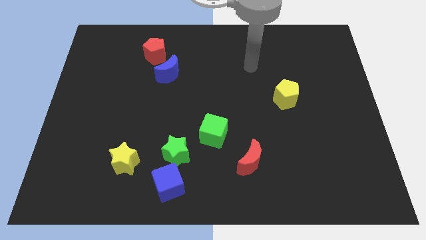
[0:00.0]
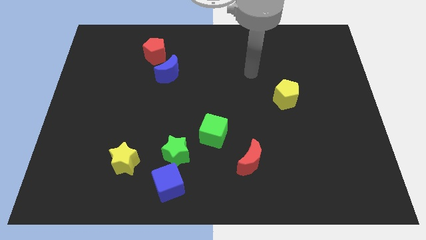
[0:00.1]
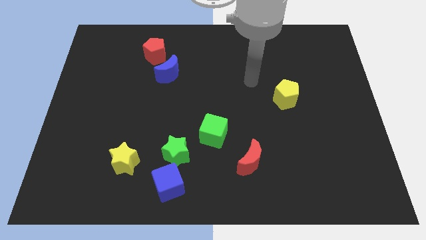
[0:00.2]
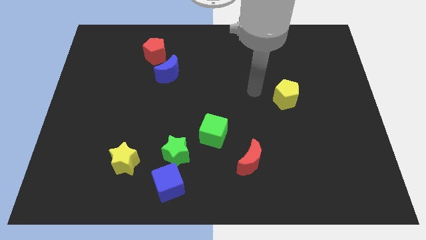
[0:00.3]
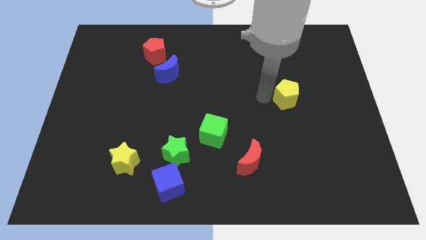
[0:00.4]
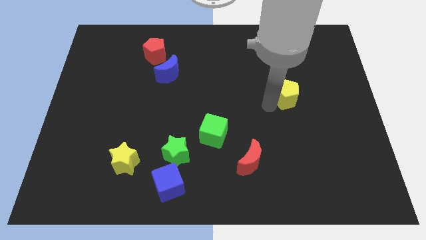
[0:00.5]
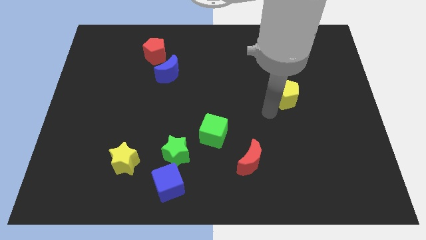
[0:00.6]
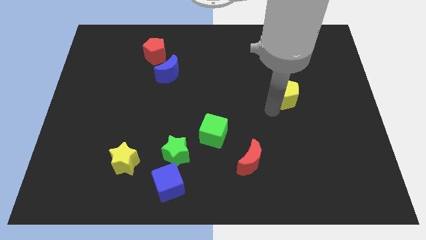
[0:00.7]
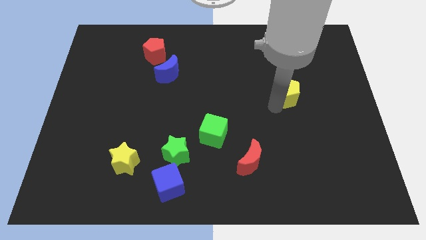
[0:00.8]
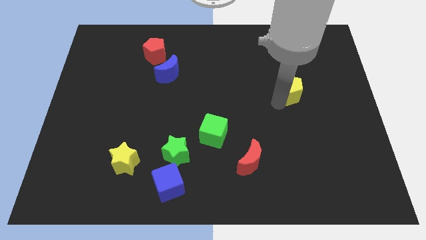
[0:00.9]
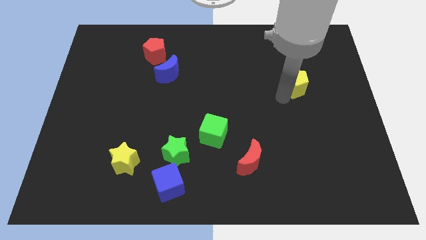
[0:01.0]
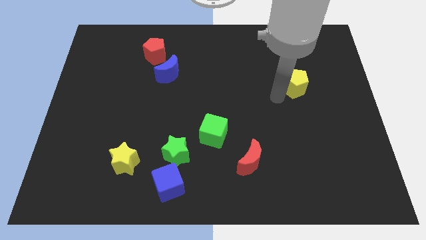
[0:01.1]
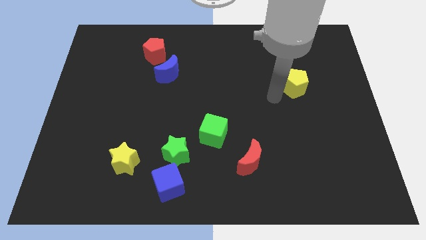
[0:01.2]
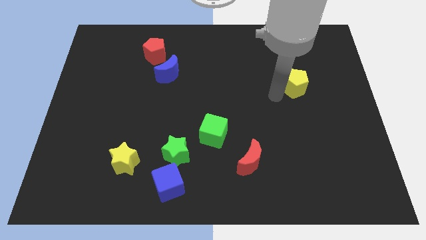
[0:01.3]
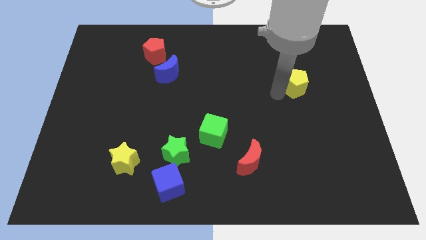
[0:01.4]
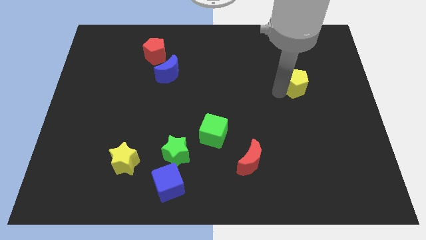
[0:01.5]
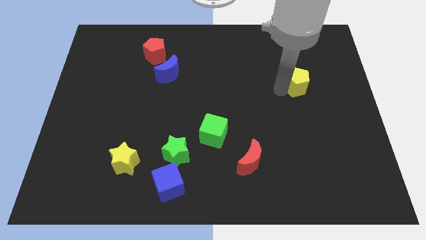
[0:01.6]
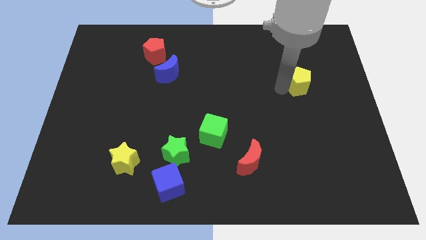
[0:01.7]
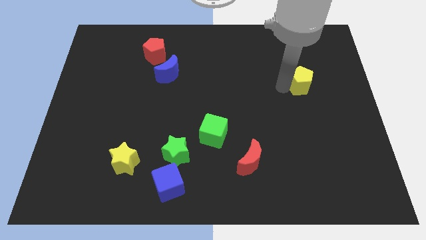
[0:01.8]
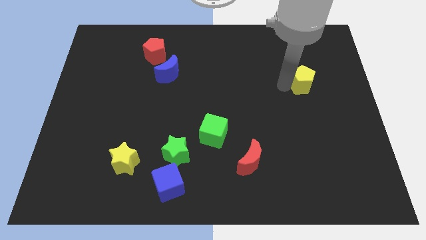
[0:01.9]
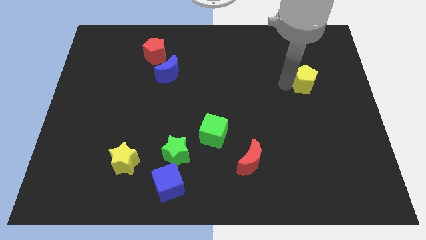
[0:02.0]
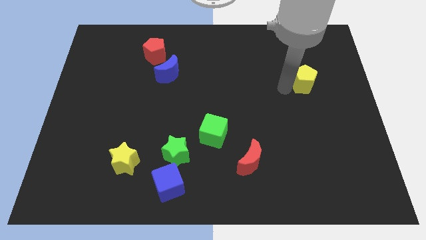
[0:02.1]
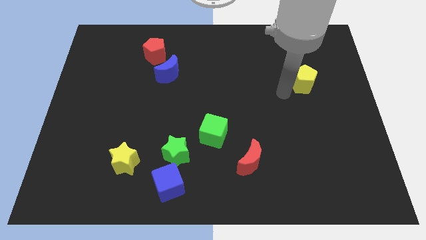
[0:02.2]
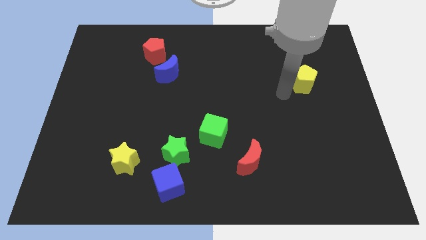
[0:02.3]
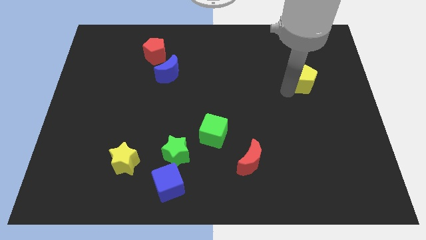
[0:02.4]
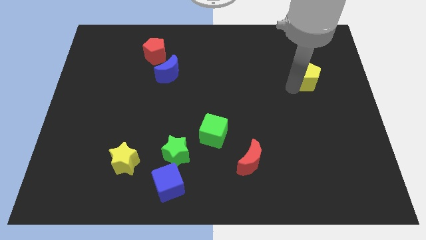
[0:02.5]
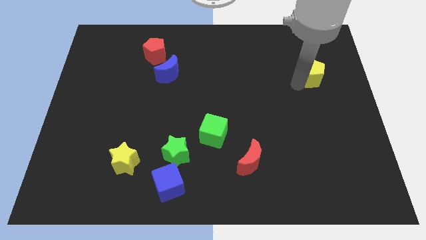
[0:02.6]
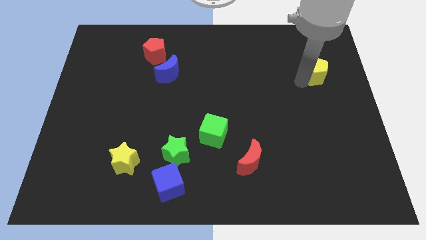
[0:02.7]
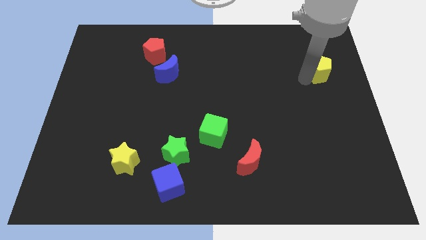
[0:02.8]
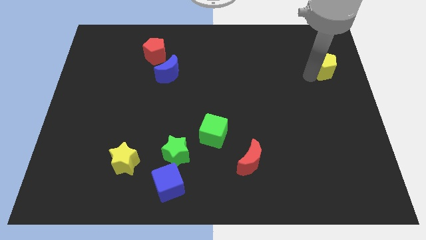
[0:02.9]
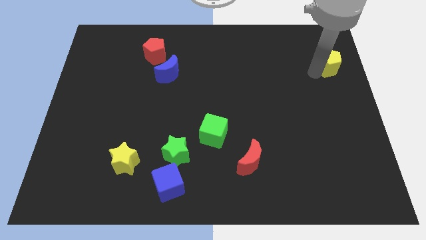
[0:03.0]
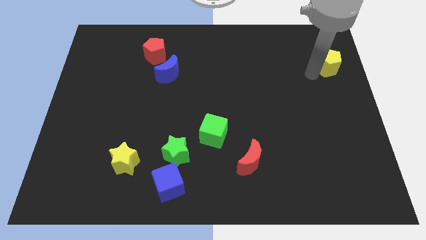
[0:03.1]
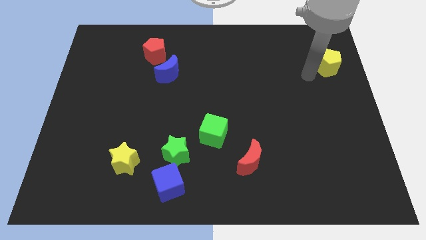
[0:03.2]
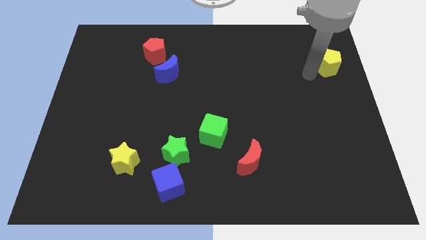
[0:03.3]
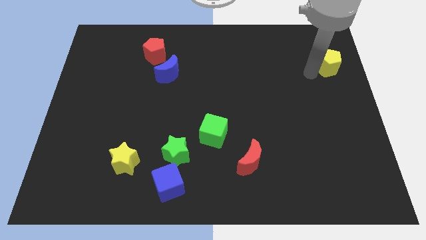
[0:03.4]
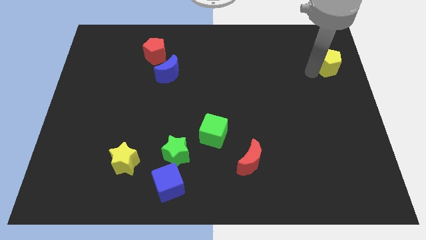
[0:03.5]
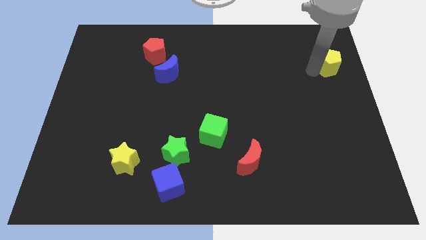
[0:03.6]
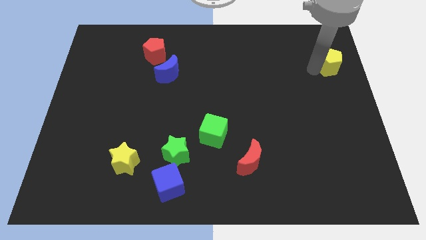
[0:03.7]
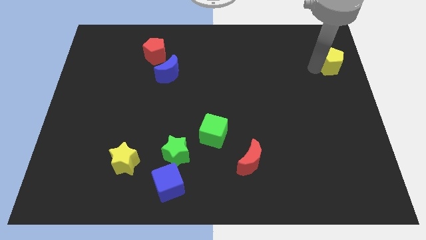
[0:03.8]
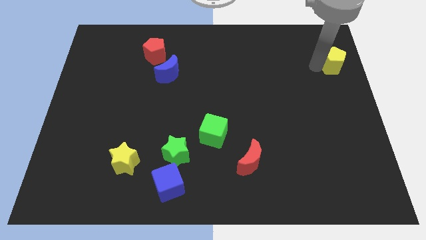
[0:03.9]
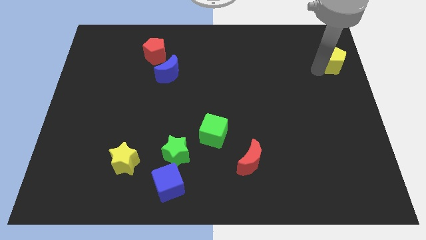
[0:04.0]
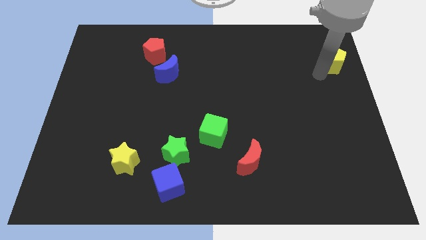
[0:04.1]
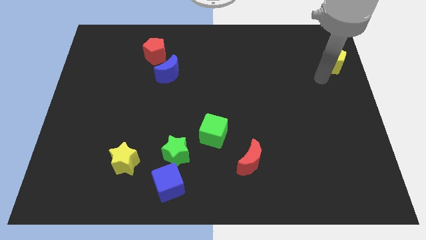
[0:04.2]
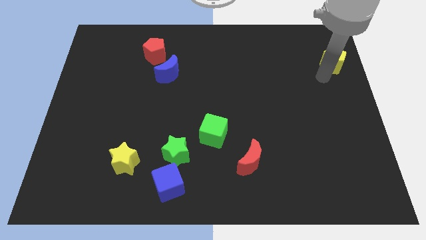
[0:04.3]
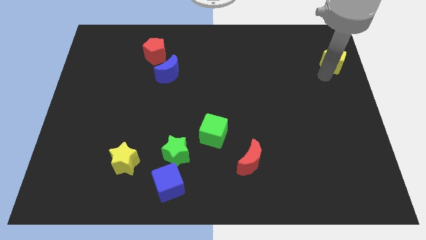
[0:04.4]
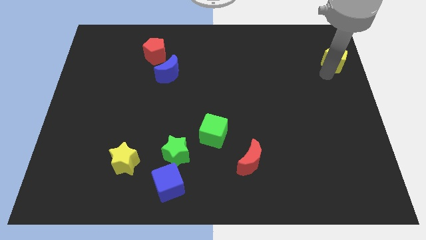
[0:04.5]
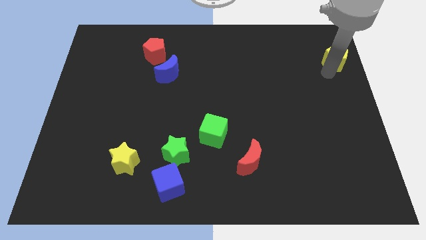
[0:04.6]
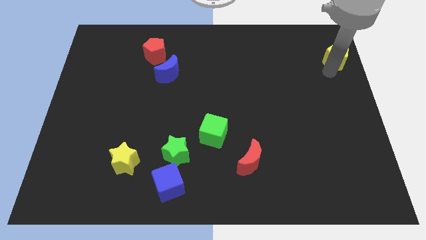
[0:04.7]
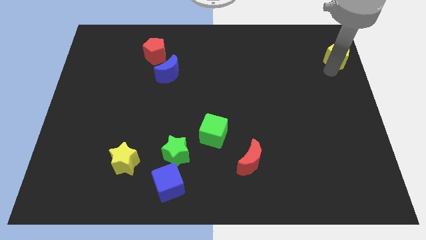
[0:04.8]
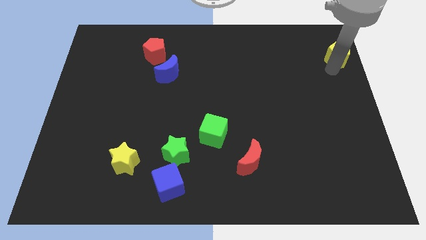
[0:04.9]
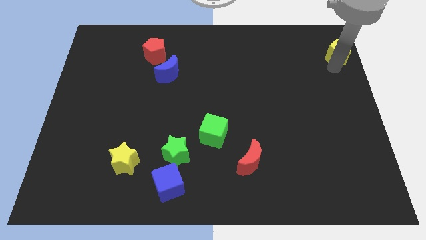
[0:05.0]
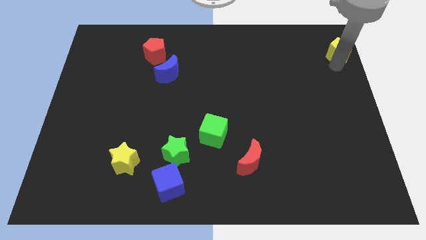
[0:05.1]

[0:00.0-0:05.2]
slide the yellow pentagon to the top right of the board

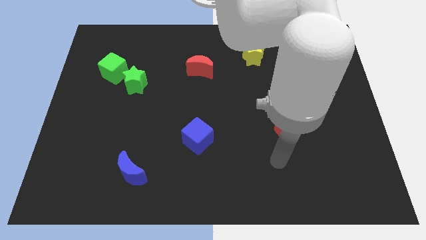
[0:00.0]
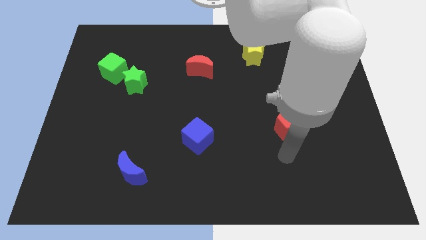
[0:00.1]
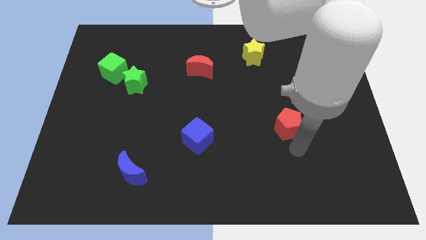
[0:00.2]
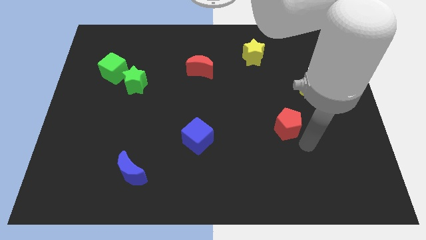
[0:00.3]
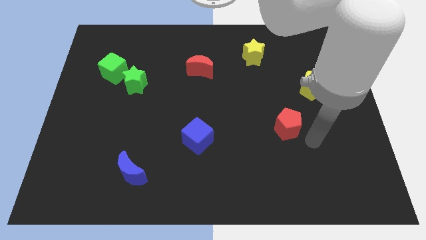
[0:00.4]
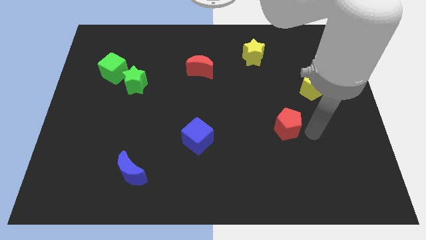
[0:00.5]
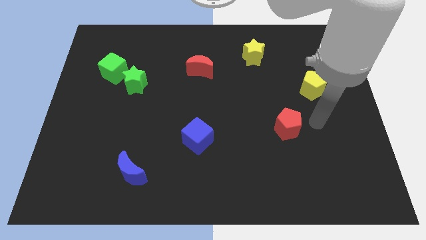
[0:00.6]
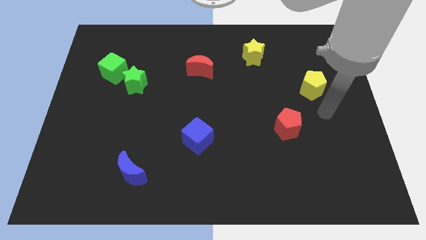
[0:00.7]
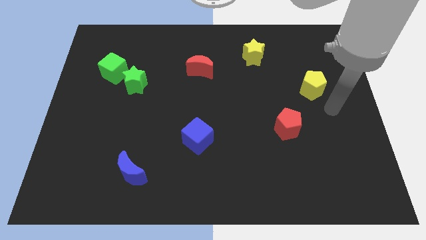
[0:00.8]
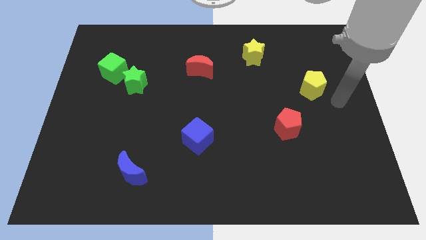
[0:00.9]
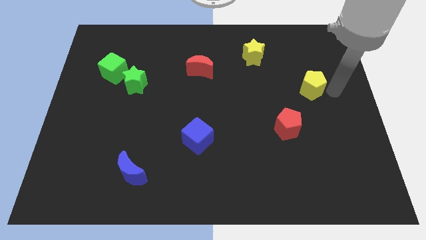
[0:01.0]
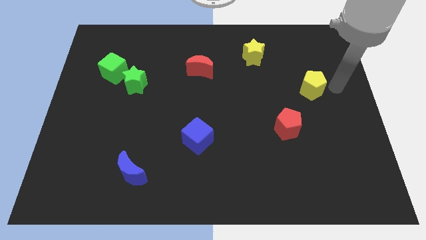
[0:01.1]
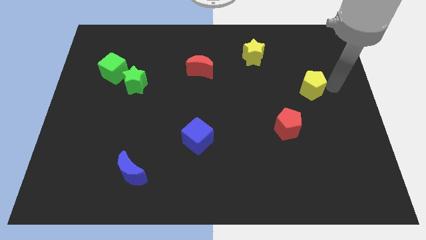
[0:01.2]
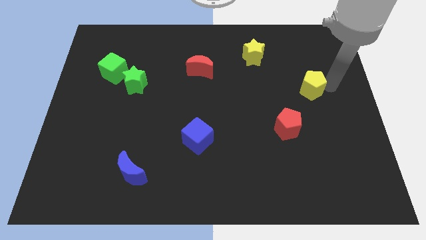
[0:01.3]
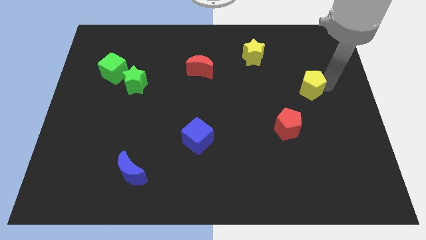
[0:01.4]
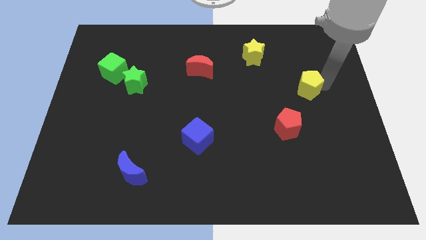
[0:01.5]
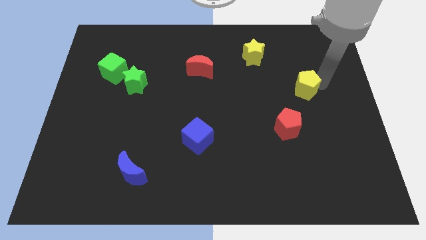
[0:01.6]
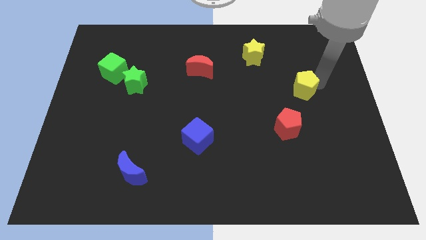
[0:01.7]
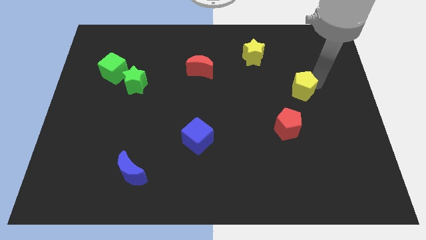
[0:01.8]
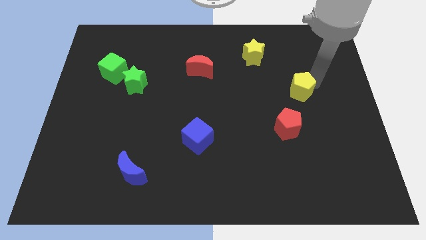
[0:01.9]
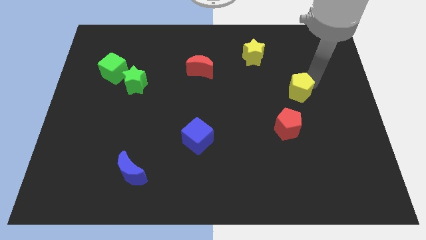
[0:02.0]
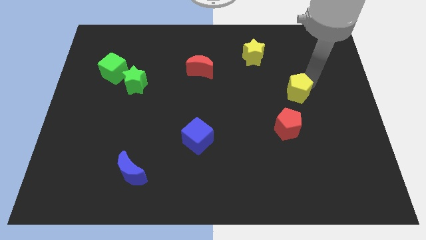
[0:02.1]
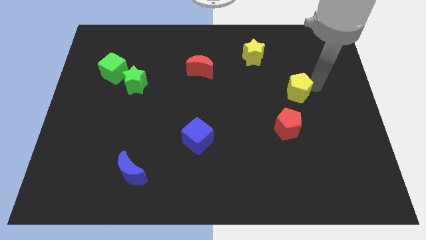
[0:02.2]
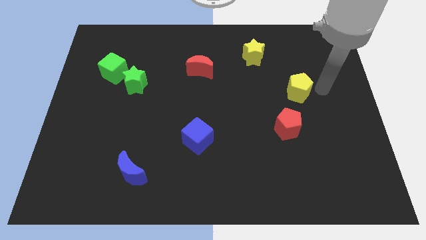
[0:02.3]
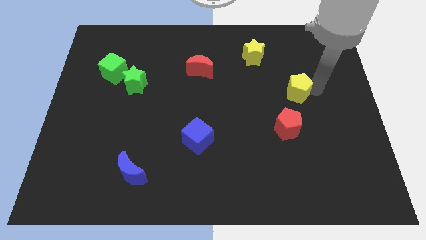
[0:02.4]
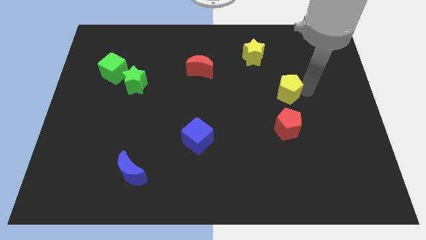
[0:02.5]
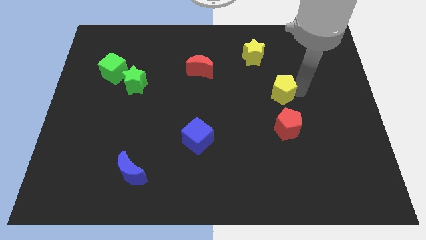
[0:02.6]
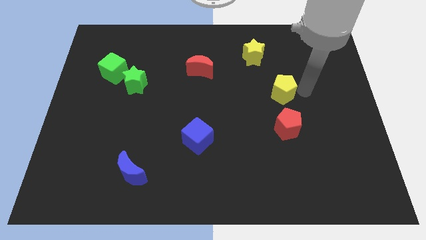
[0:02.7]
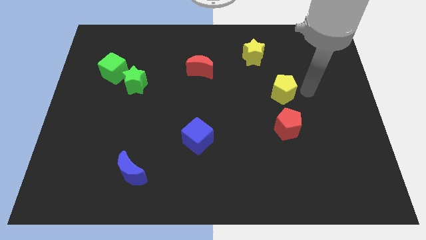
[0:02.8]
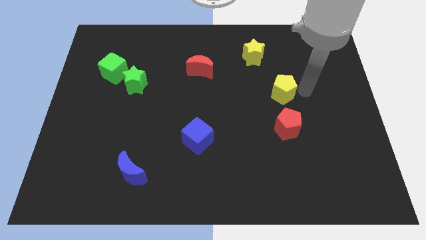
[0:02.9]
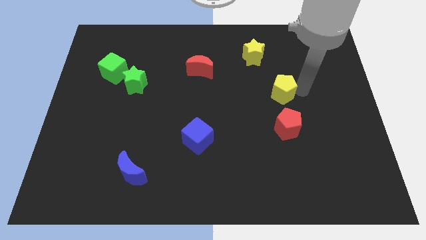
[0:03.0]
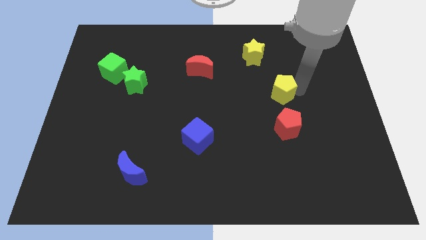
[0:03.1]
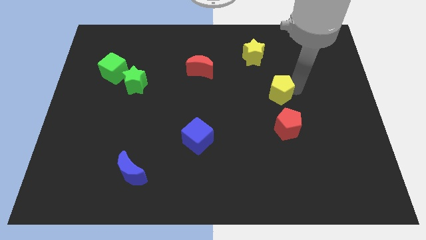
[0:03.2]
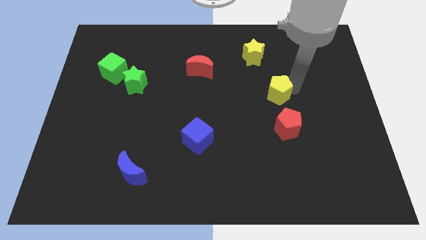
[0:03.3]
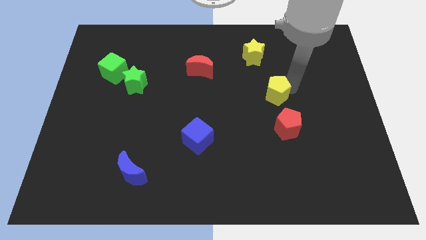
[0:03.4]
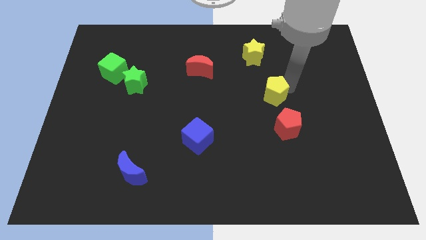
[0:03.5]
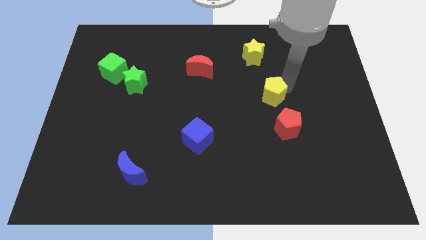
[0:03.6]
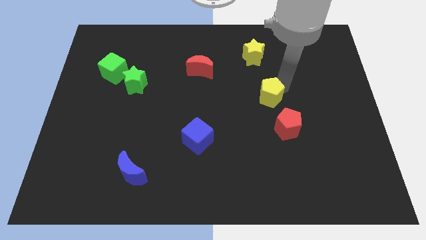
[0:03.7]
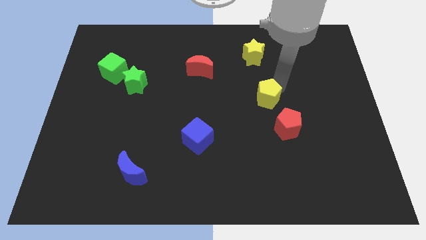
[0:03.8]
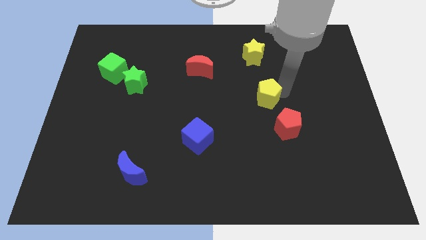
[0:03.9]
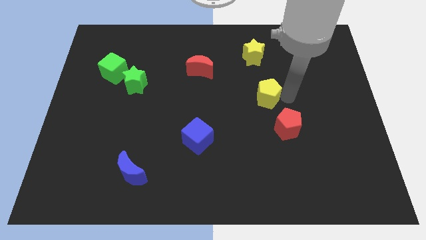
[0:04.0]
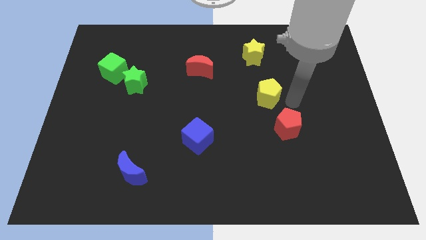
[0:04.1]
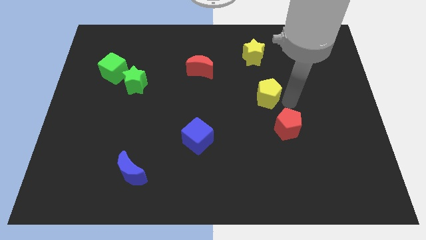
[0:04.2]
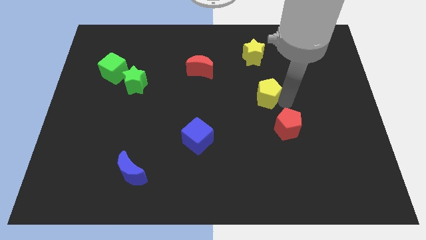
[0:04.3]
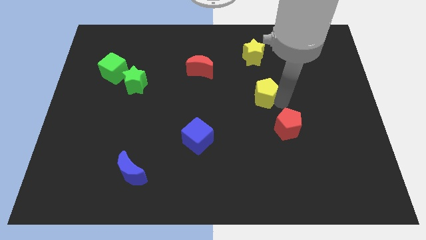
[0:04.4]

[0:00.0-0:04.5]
move the yellow pentagon to the center of the board
